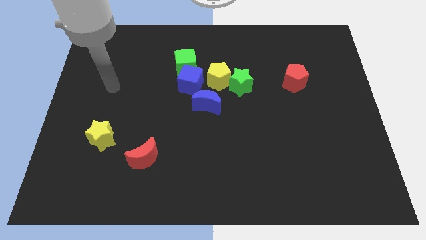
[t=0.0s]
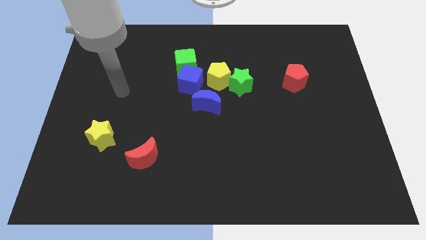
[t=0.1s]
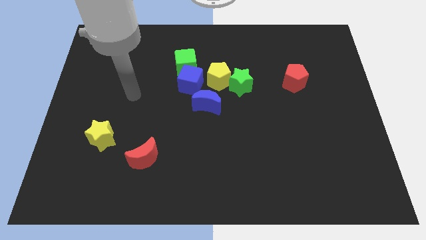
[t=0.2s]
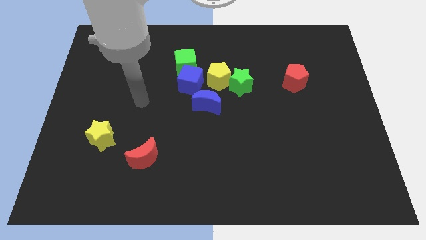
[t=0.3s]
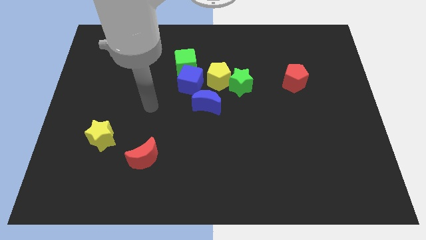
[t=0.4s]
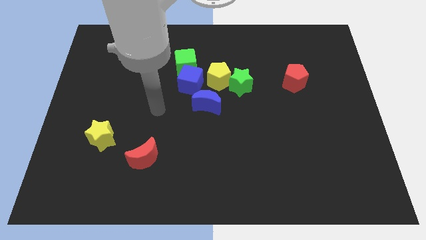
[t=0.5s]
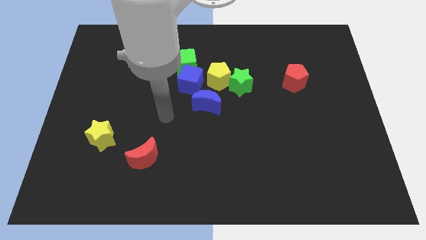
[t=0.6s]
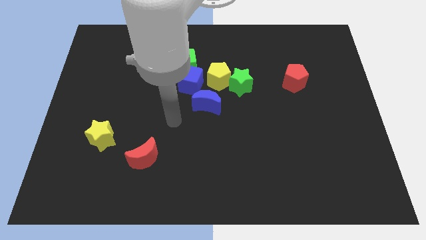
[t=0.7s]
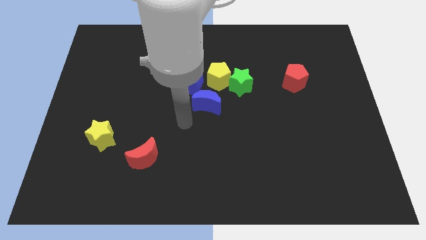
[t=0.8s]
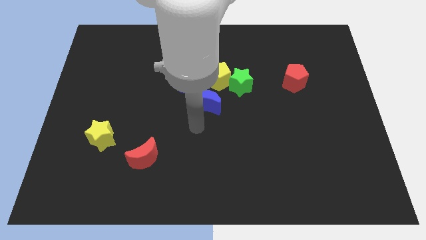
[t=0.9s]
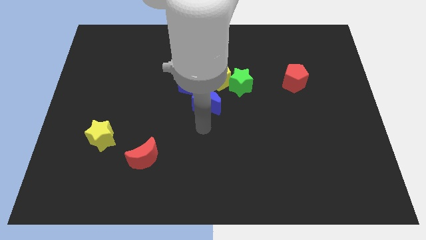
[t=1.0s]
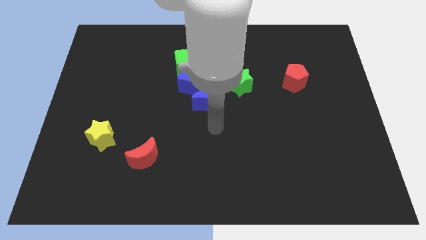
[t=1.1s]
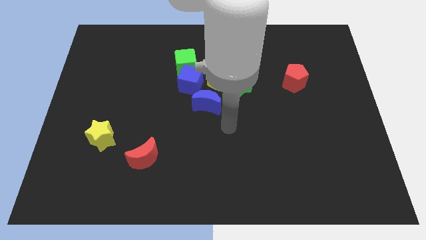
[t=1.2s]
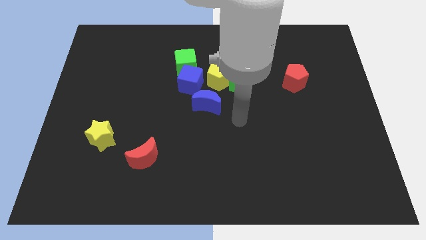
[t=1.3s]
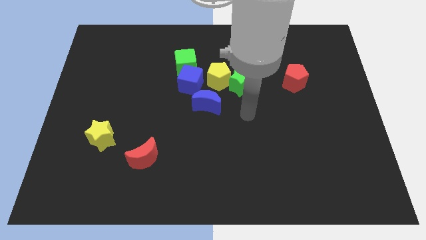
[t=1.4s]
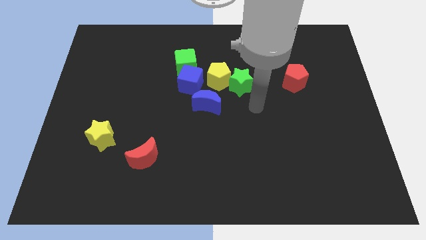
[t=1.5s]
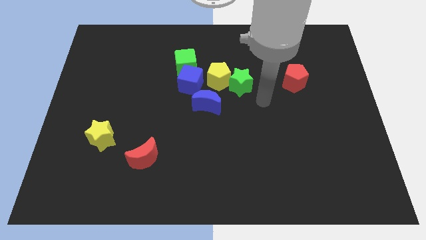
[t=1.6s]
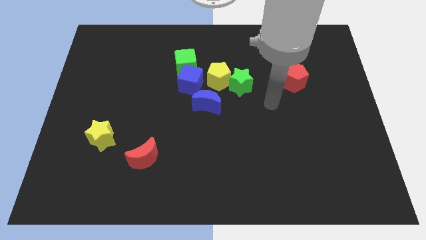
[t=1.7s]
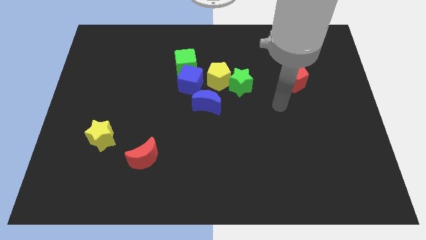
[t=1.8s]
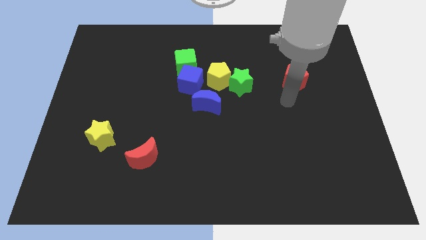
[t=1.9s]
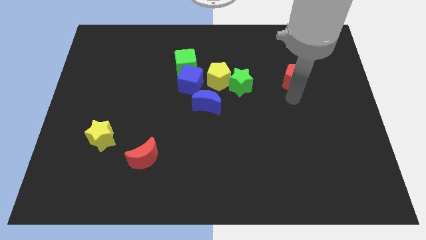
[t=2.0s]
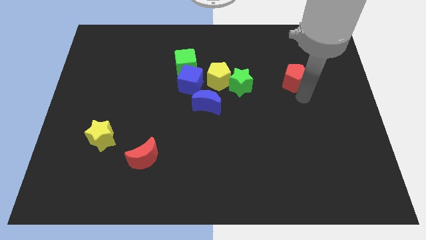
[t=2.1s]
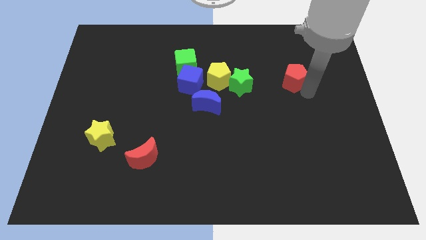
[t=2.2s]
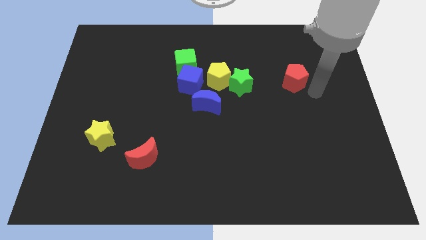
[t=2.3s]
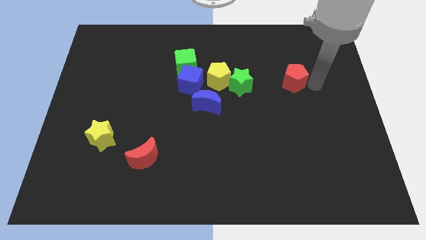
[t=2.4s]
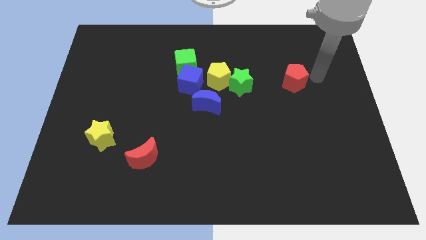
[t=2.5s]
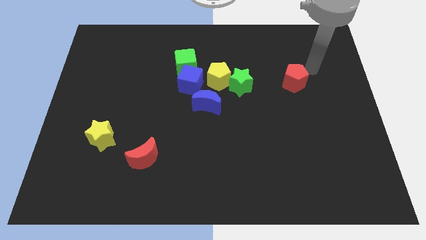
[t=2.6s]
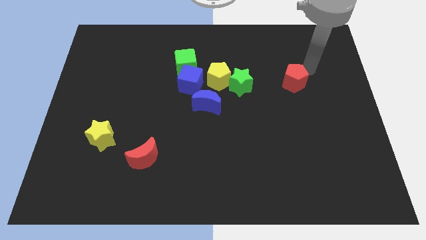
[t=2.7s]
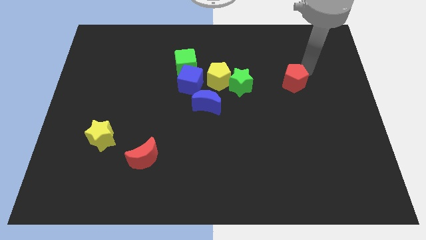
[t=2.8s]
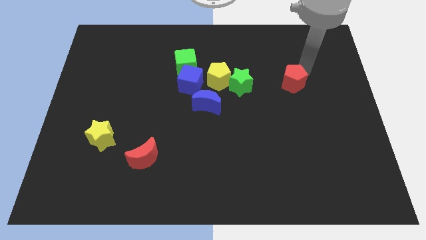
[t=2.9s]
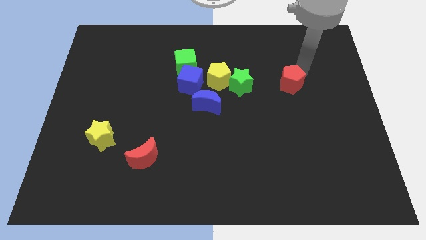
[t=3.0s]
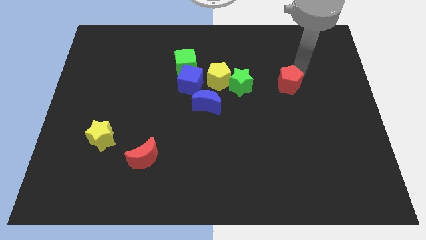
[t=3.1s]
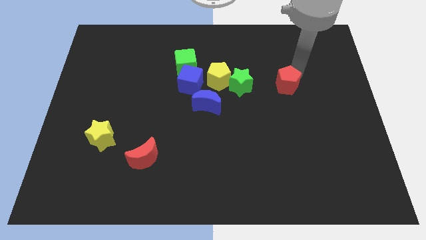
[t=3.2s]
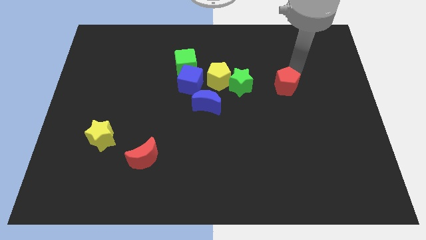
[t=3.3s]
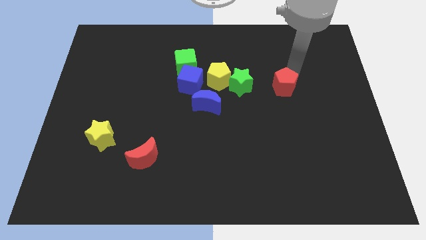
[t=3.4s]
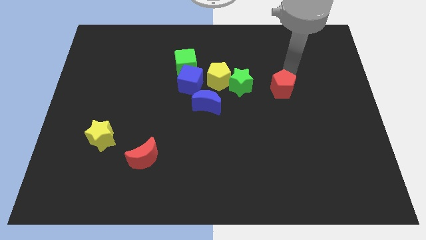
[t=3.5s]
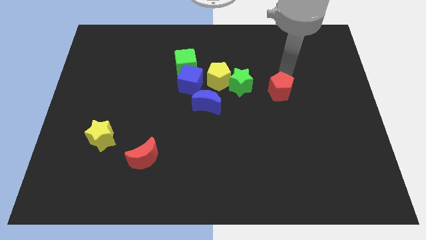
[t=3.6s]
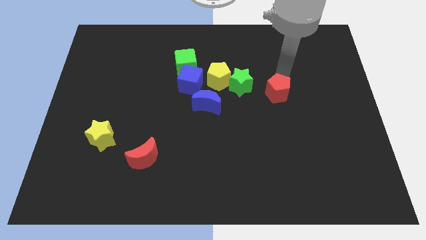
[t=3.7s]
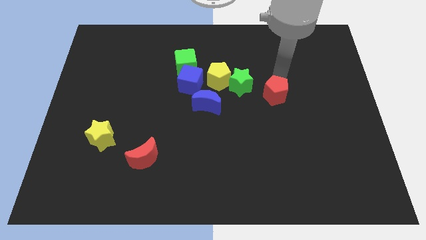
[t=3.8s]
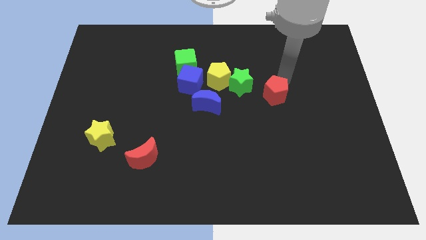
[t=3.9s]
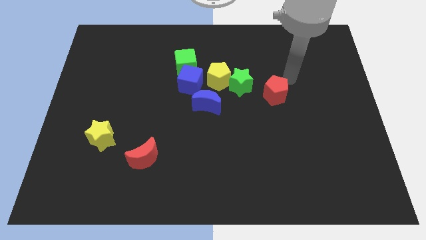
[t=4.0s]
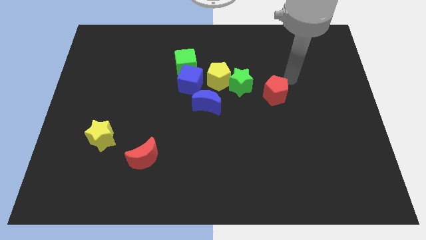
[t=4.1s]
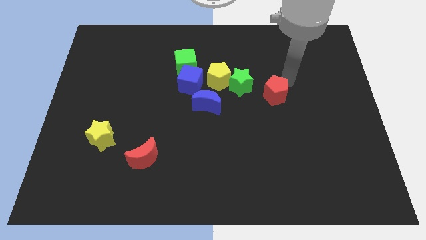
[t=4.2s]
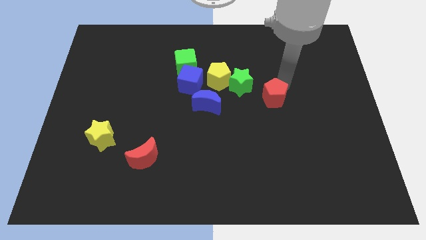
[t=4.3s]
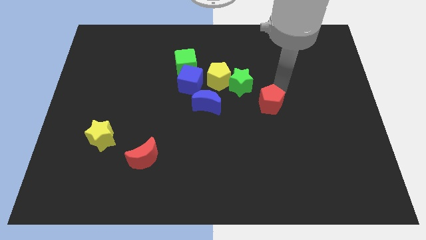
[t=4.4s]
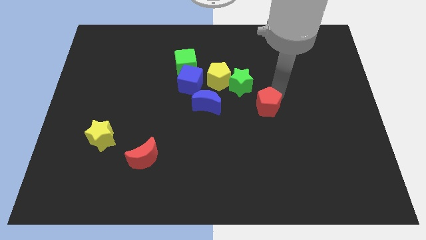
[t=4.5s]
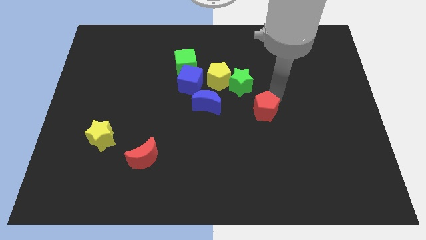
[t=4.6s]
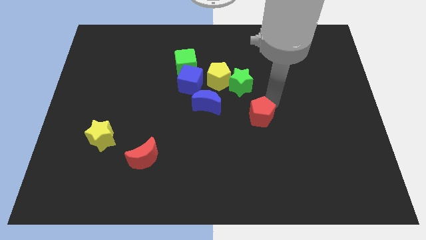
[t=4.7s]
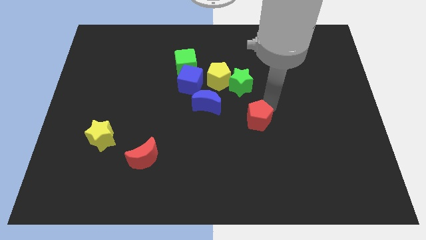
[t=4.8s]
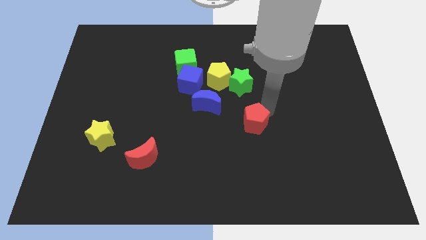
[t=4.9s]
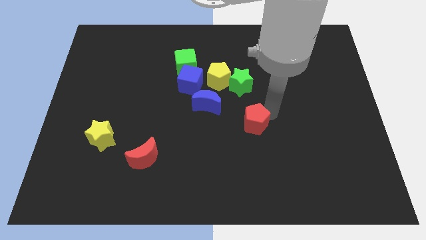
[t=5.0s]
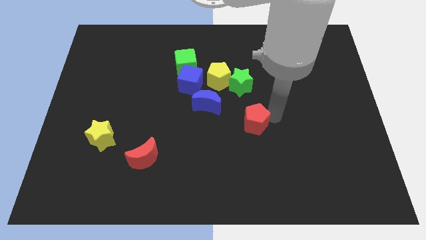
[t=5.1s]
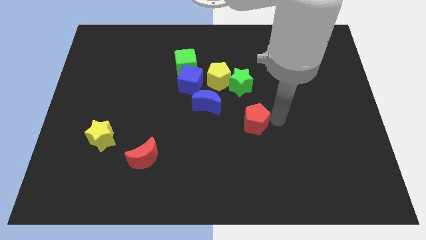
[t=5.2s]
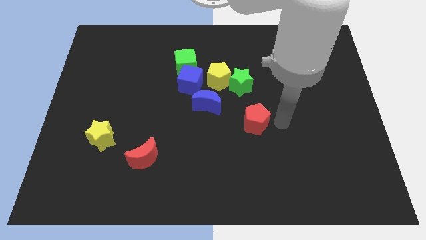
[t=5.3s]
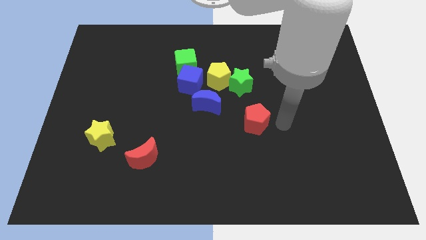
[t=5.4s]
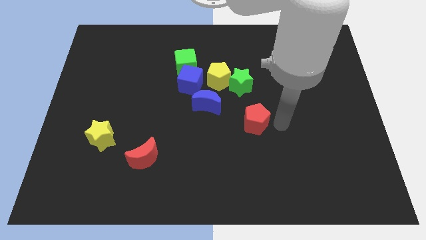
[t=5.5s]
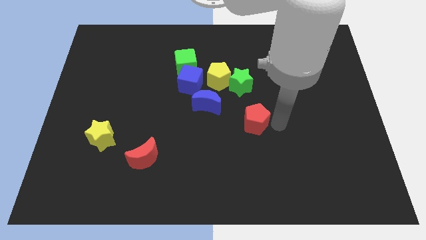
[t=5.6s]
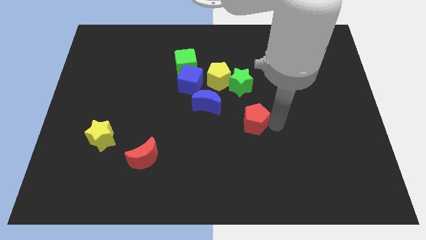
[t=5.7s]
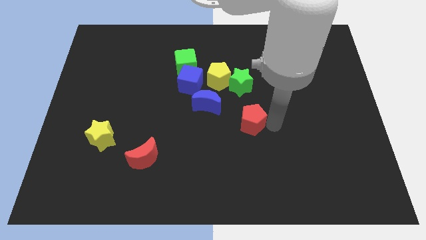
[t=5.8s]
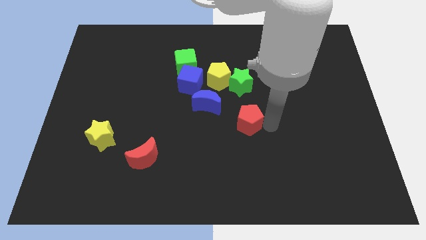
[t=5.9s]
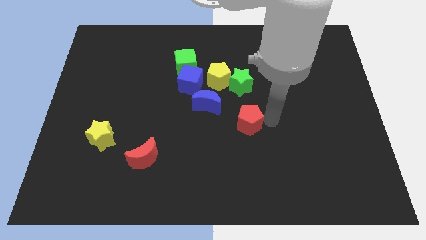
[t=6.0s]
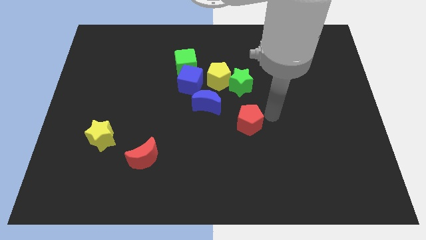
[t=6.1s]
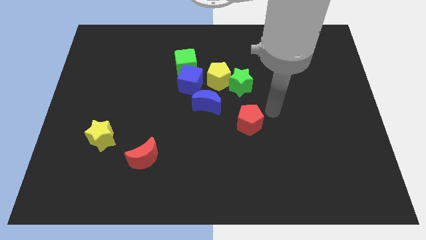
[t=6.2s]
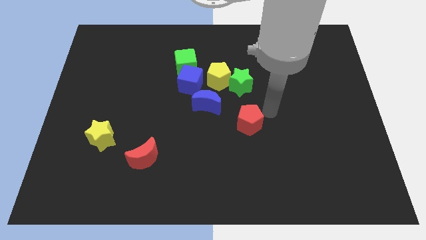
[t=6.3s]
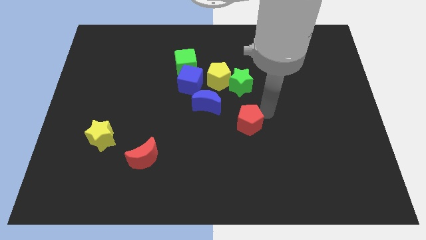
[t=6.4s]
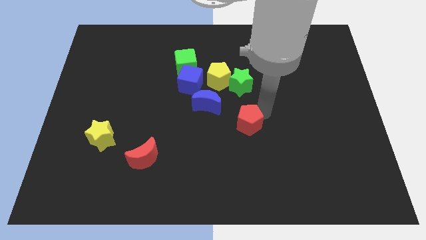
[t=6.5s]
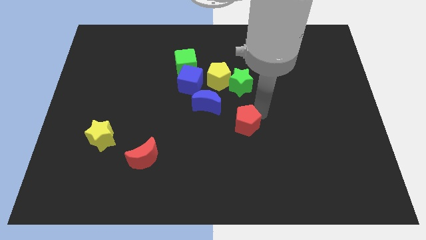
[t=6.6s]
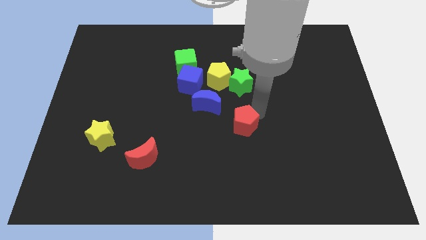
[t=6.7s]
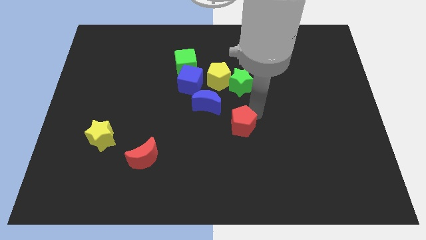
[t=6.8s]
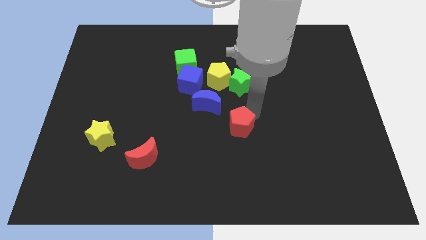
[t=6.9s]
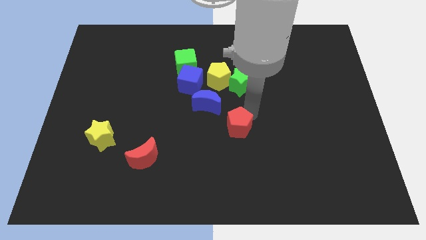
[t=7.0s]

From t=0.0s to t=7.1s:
slide the red pentagon diagonally down and left

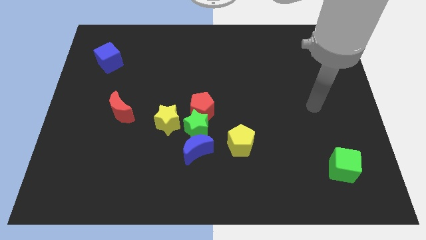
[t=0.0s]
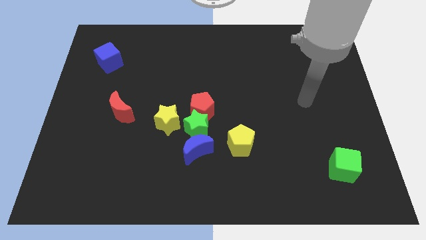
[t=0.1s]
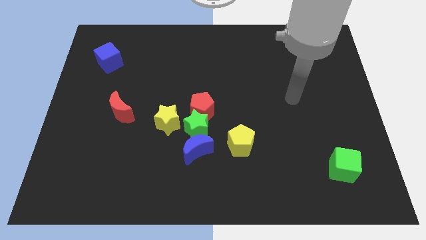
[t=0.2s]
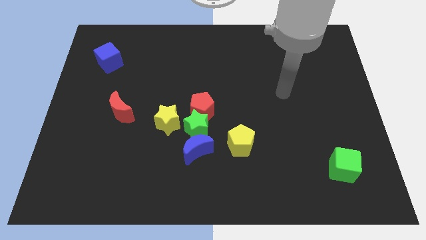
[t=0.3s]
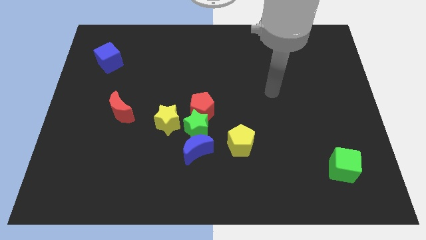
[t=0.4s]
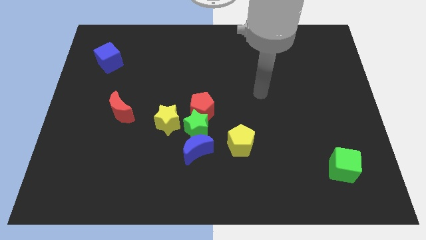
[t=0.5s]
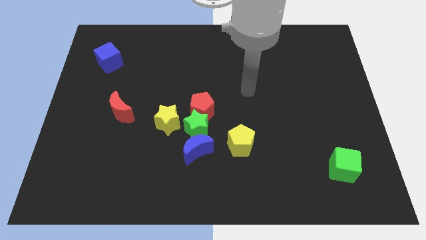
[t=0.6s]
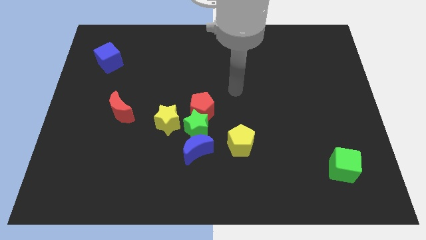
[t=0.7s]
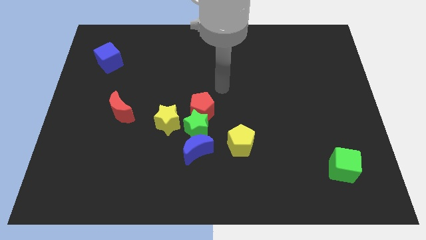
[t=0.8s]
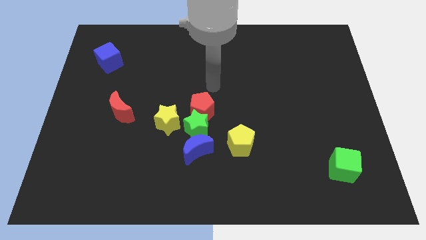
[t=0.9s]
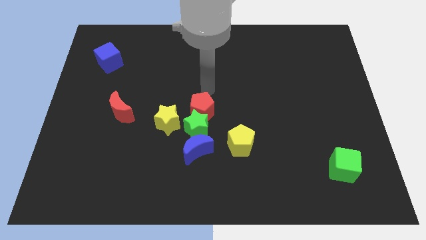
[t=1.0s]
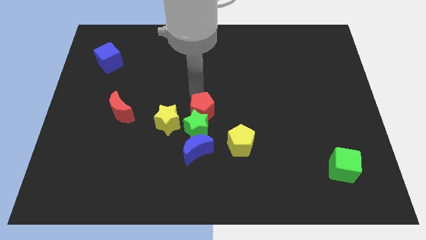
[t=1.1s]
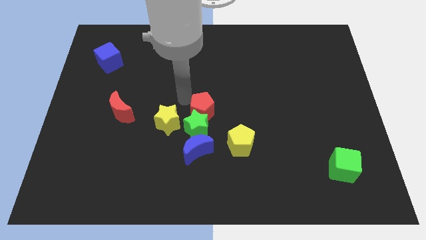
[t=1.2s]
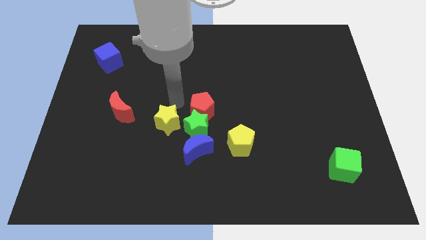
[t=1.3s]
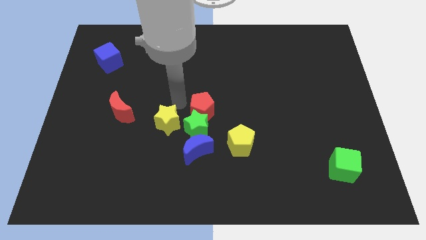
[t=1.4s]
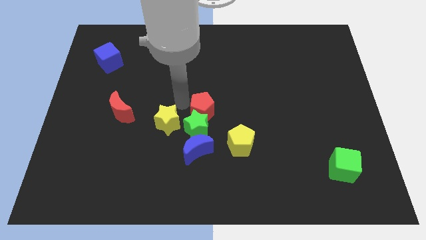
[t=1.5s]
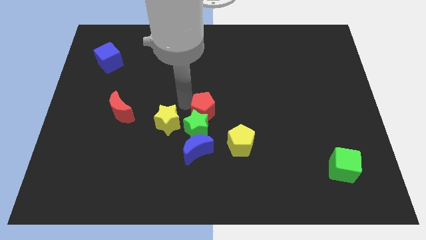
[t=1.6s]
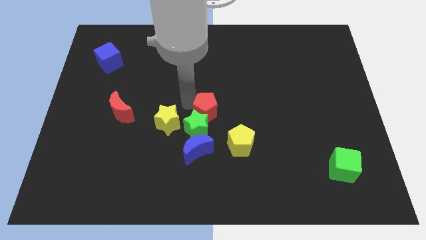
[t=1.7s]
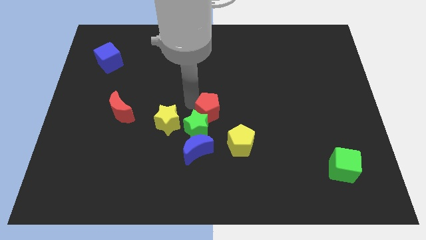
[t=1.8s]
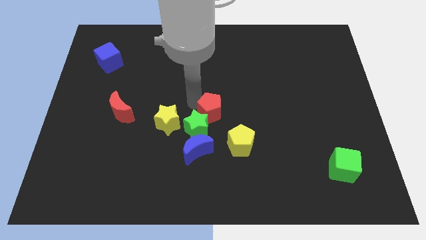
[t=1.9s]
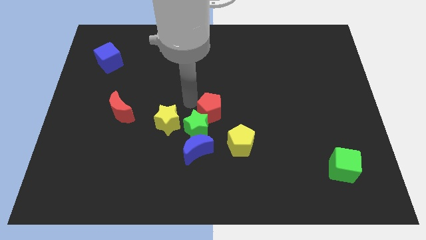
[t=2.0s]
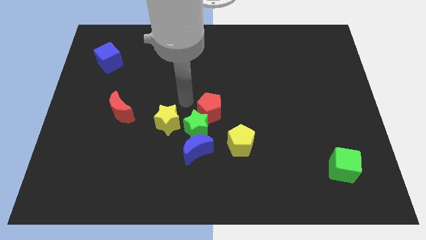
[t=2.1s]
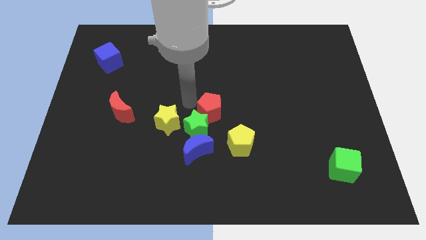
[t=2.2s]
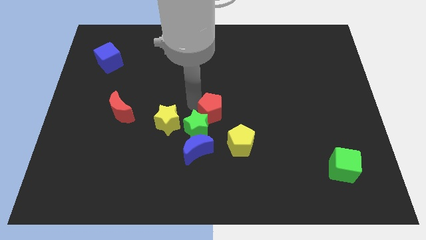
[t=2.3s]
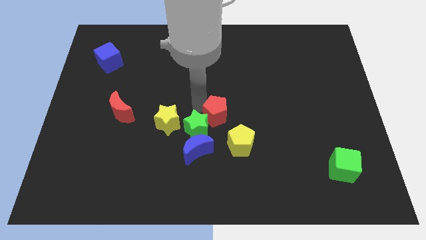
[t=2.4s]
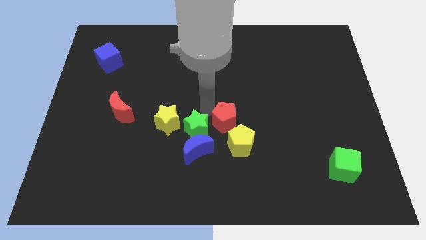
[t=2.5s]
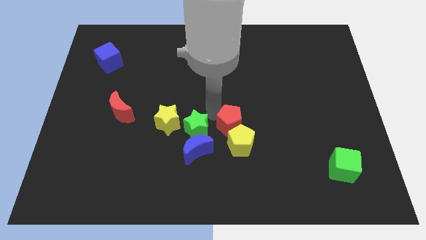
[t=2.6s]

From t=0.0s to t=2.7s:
push the red pentagon a little diagonally downwards and right
